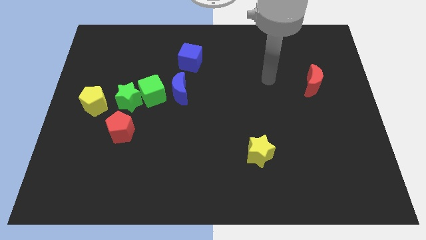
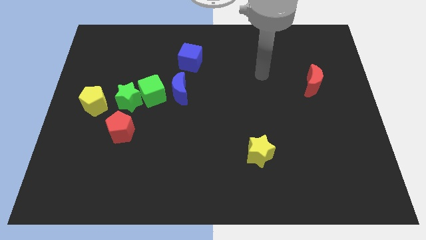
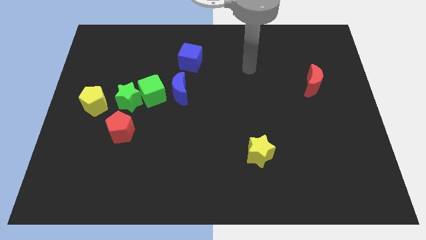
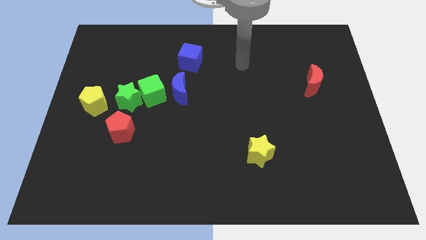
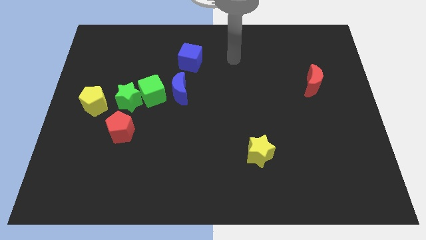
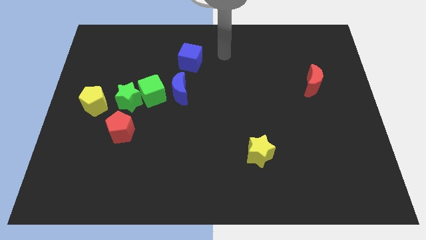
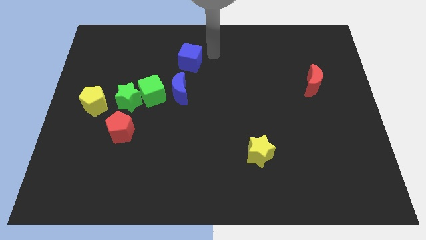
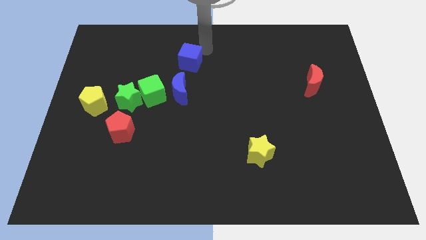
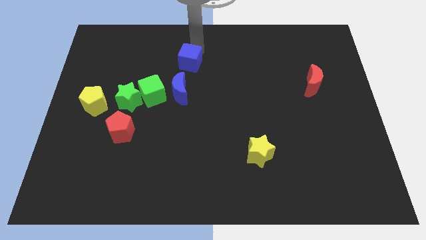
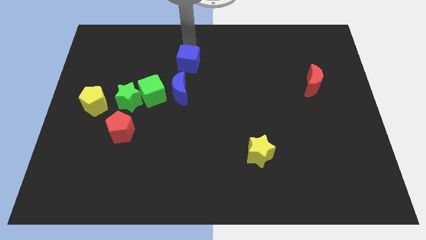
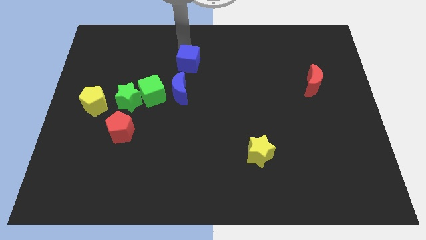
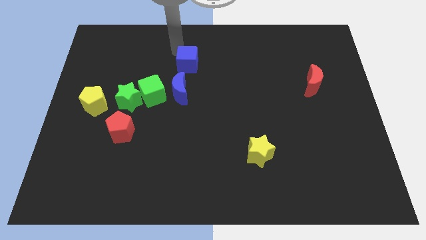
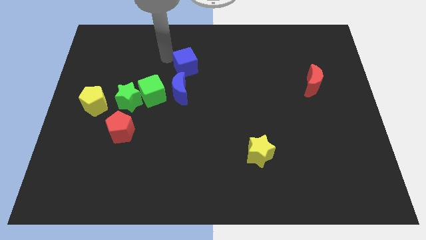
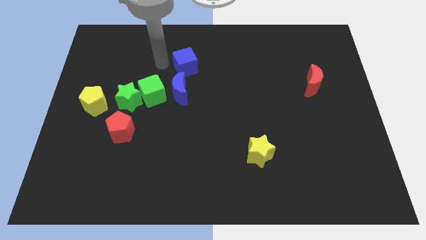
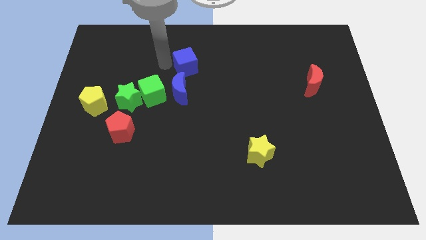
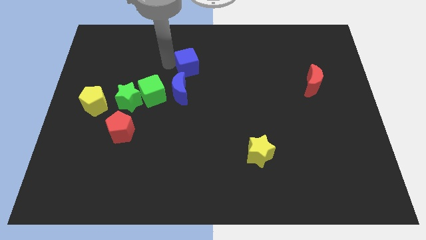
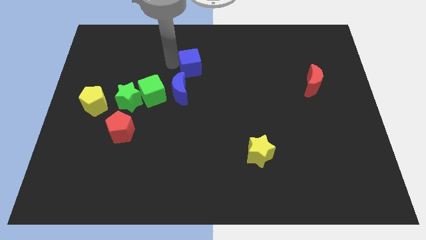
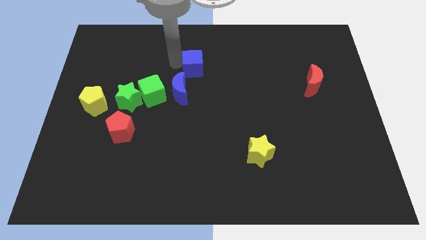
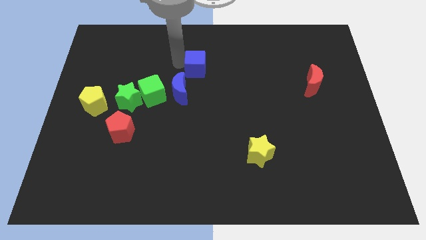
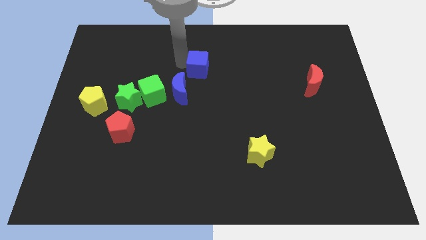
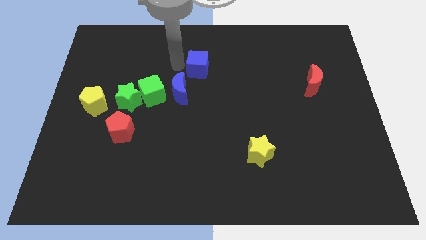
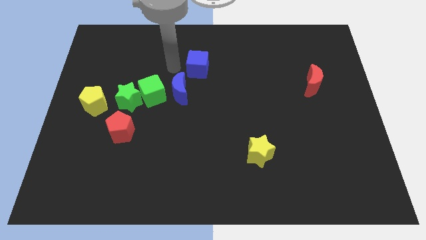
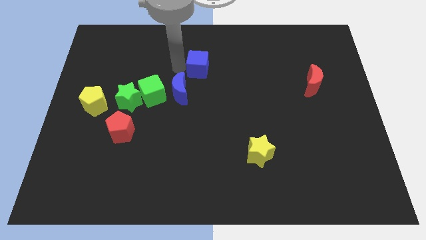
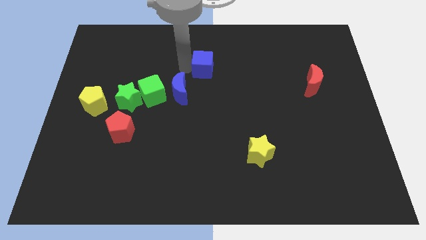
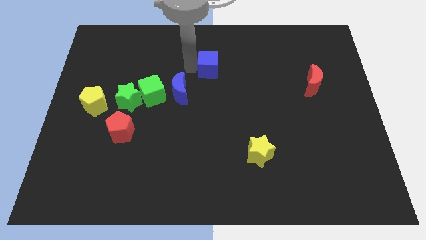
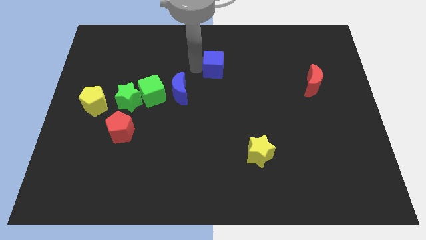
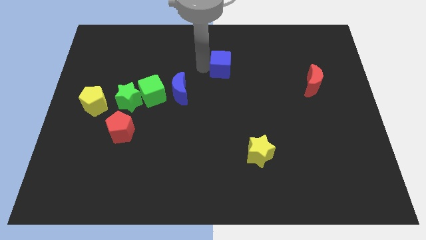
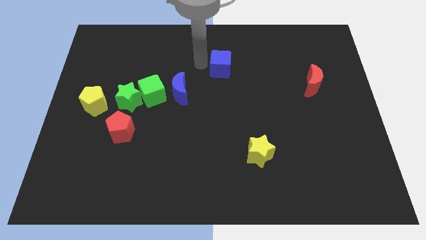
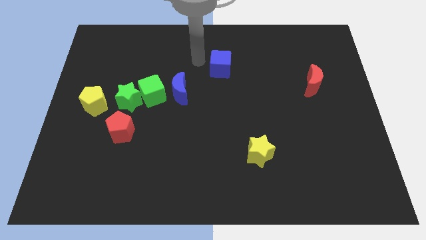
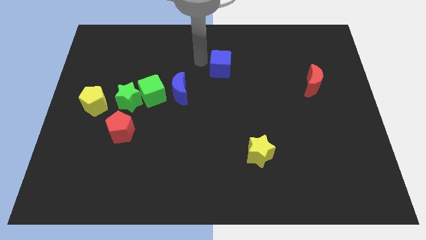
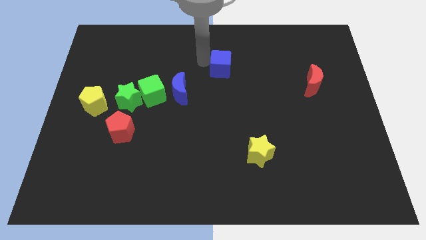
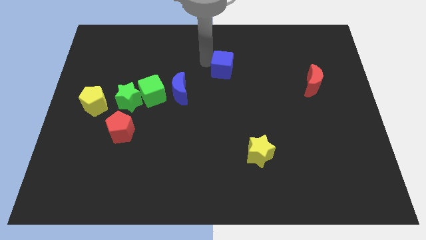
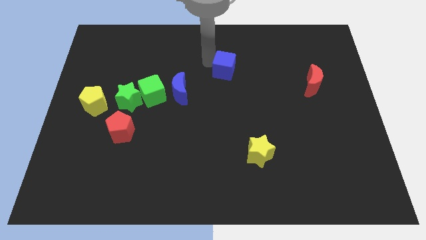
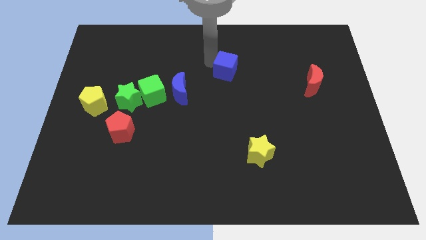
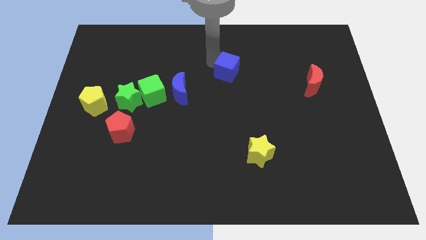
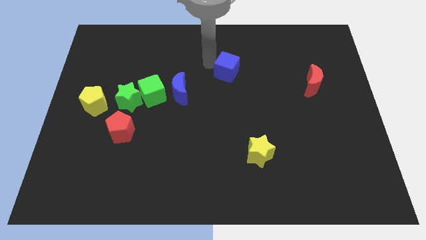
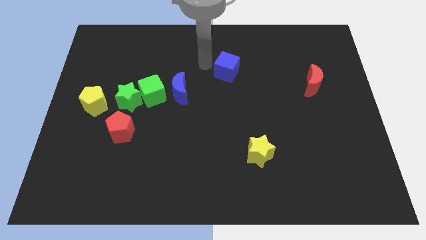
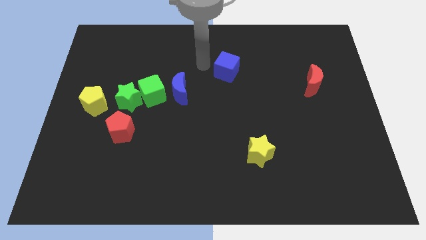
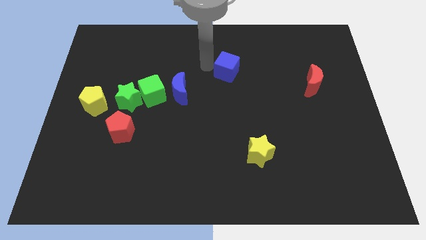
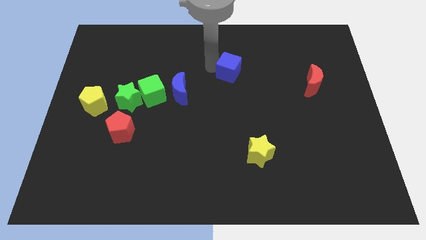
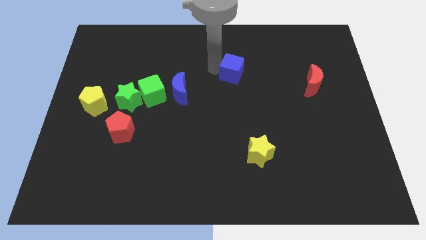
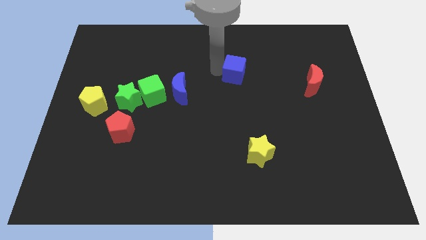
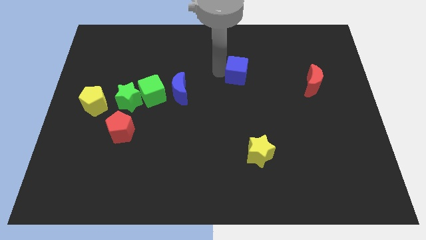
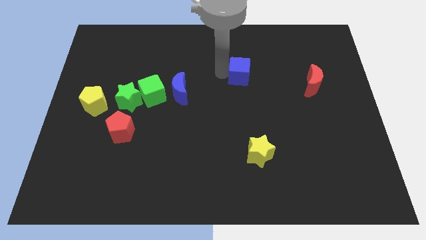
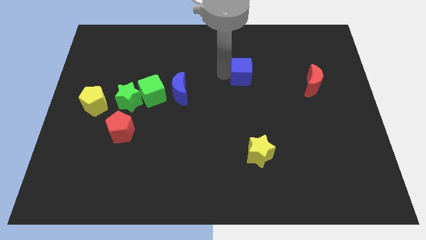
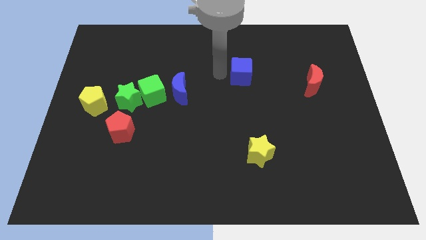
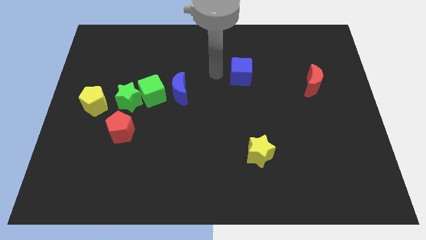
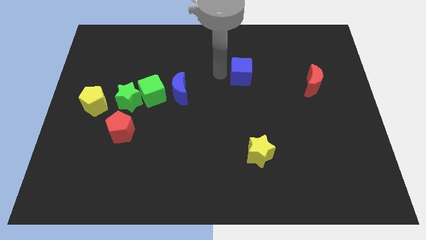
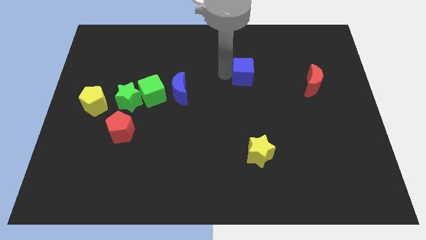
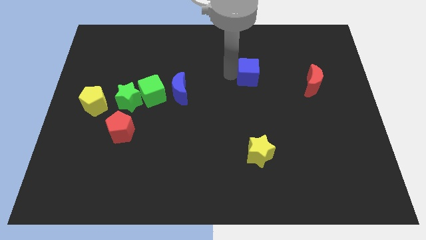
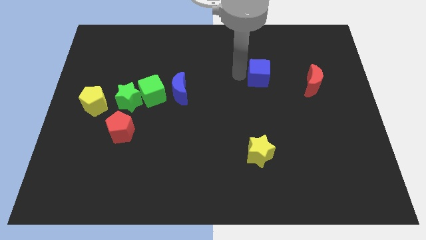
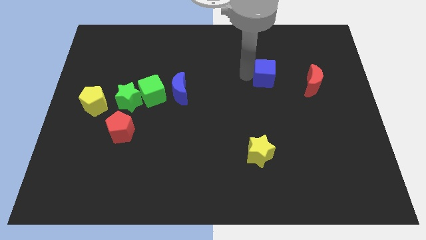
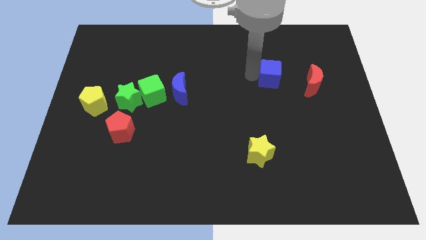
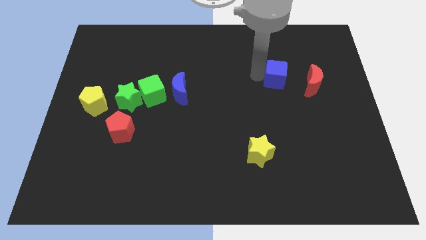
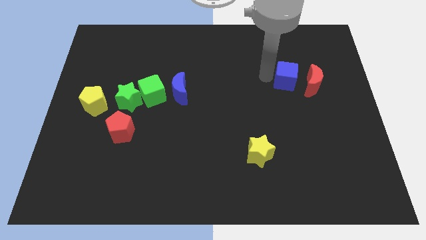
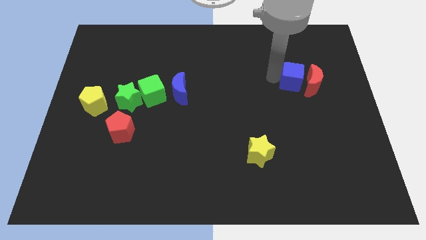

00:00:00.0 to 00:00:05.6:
push the blue cube towards the red moon
